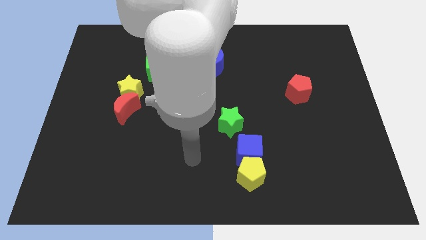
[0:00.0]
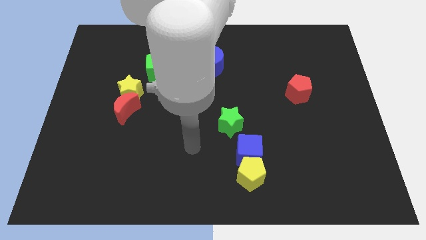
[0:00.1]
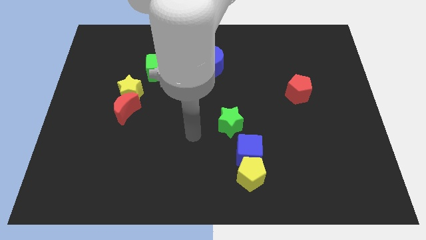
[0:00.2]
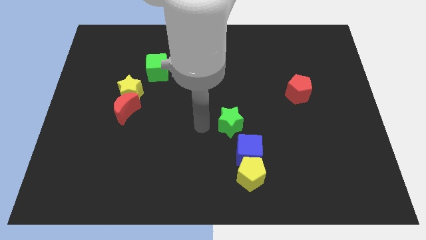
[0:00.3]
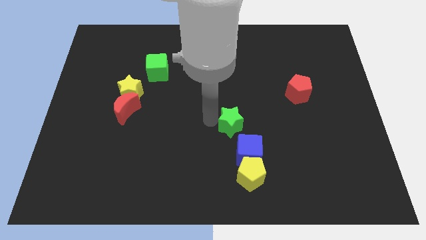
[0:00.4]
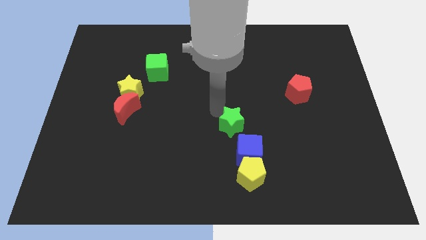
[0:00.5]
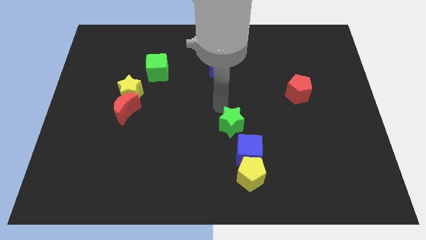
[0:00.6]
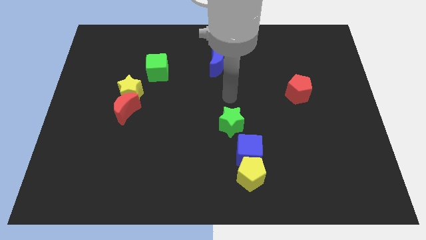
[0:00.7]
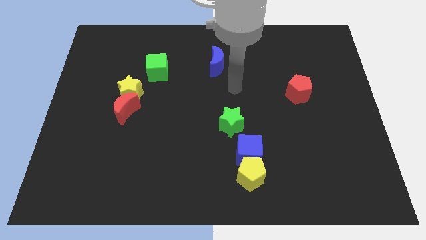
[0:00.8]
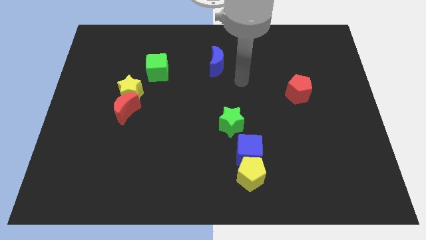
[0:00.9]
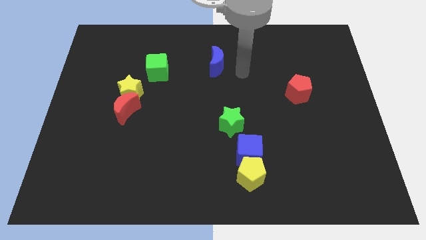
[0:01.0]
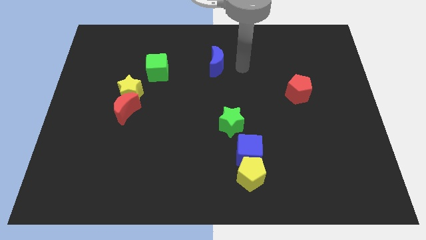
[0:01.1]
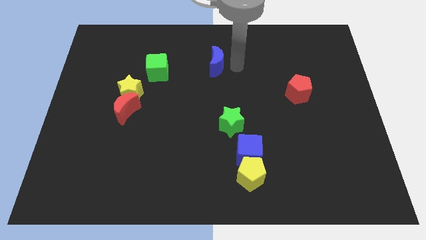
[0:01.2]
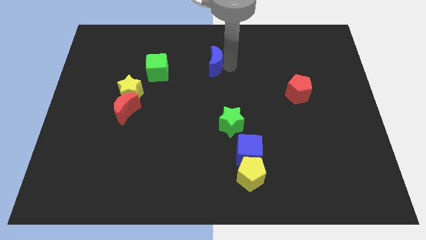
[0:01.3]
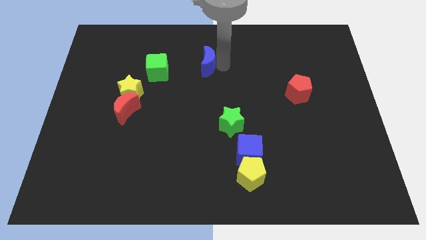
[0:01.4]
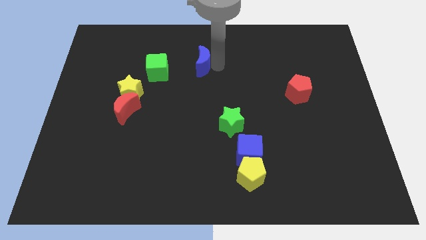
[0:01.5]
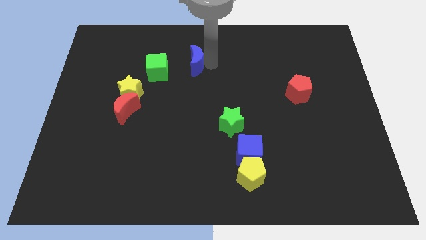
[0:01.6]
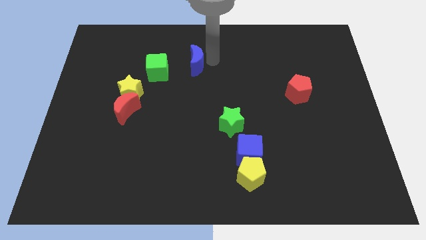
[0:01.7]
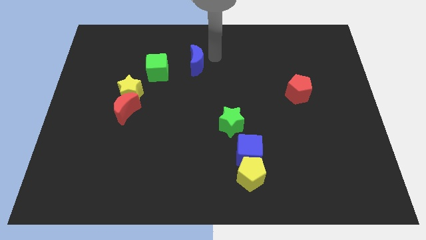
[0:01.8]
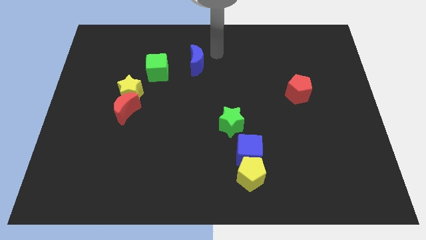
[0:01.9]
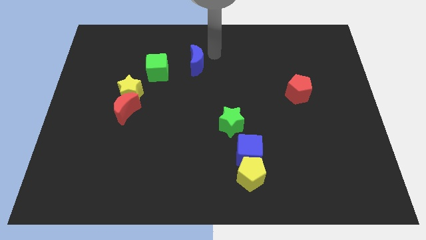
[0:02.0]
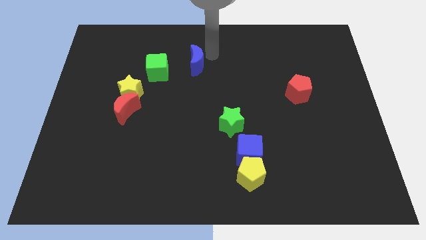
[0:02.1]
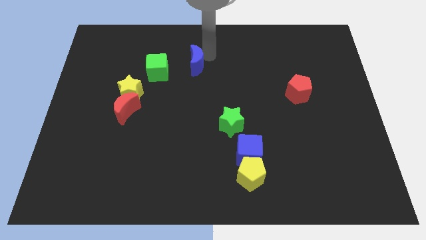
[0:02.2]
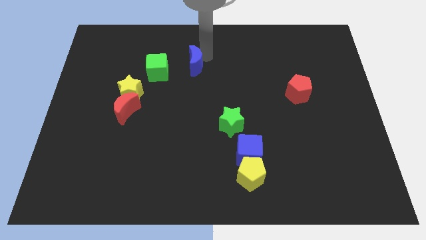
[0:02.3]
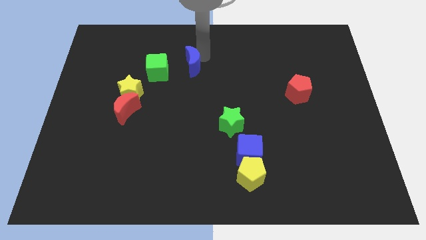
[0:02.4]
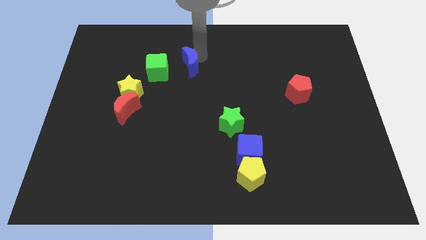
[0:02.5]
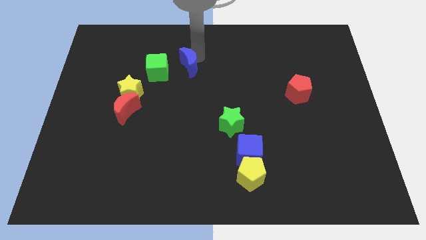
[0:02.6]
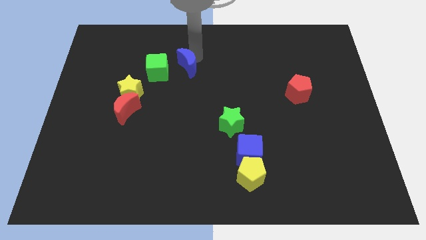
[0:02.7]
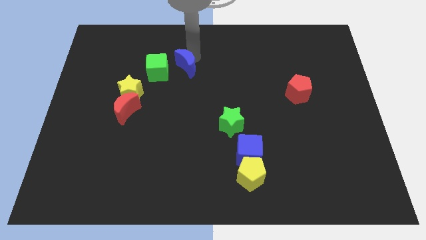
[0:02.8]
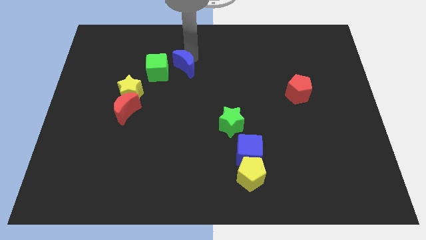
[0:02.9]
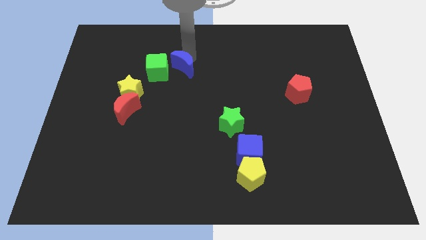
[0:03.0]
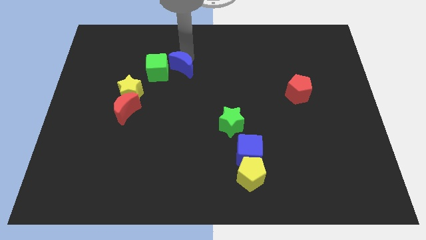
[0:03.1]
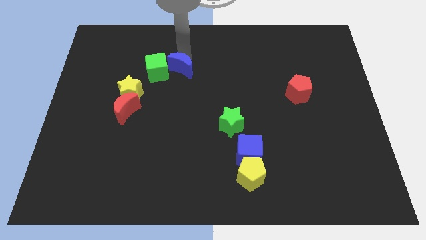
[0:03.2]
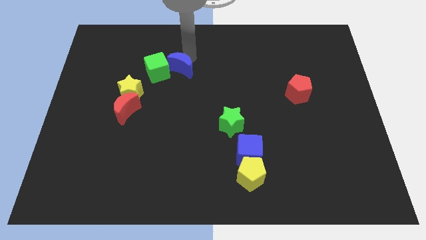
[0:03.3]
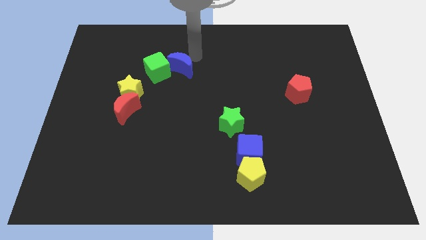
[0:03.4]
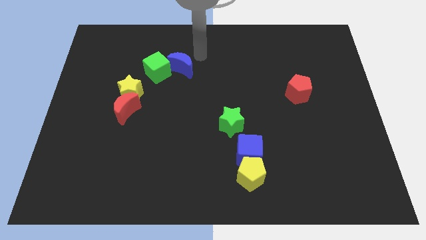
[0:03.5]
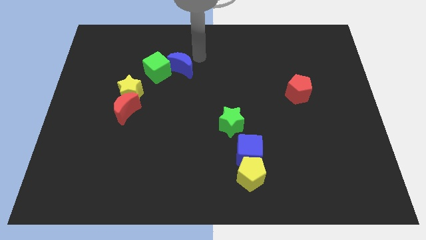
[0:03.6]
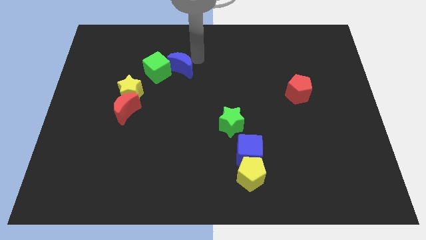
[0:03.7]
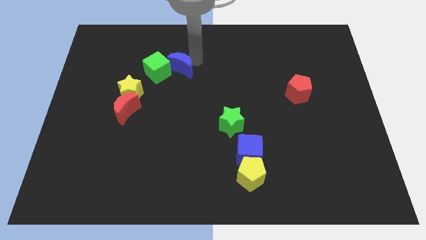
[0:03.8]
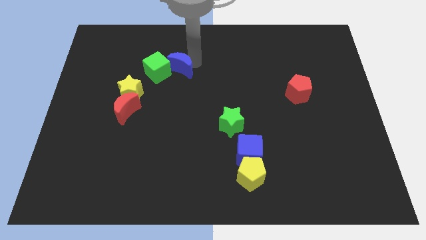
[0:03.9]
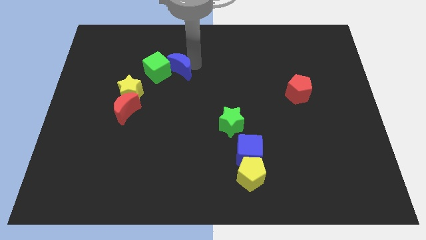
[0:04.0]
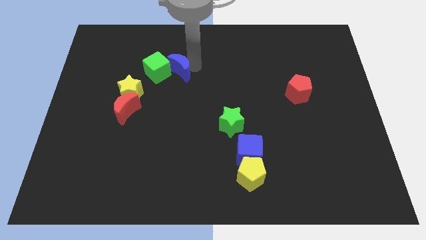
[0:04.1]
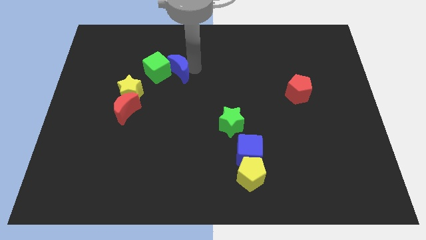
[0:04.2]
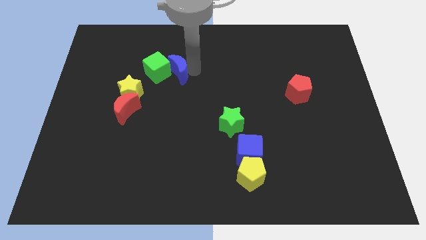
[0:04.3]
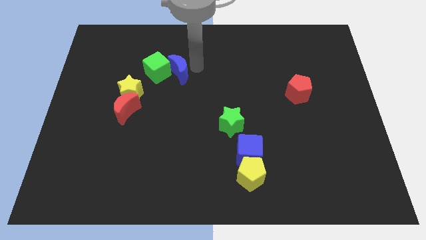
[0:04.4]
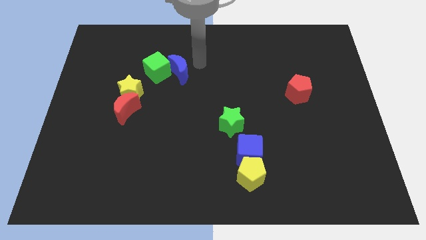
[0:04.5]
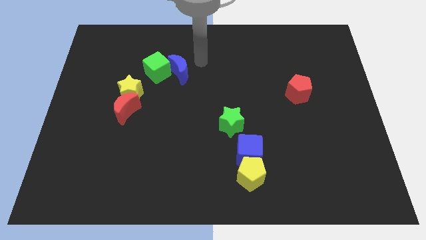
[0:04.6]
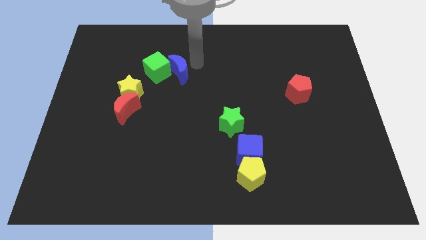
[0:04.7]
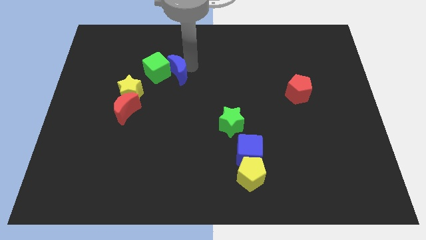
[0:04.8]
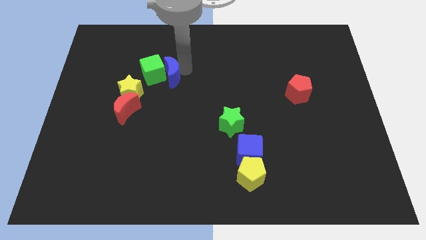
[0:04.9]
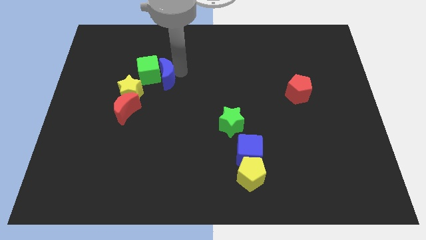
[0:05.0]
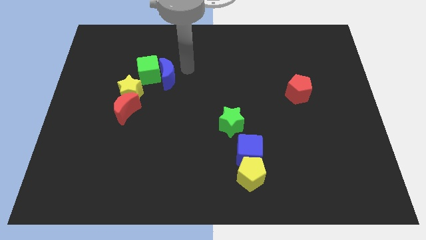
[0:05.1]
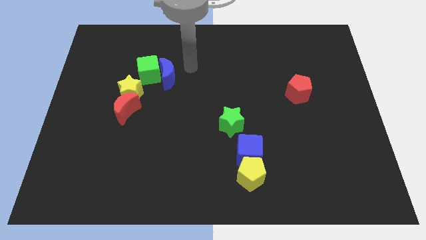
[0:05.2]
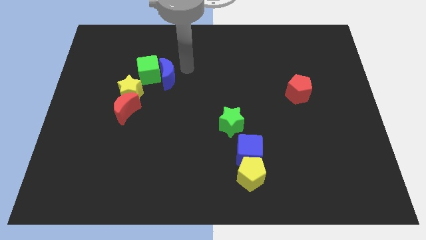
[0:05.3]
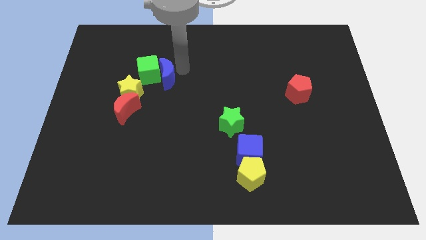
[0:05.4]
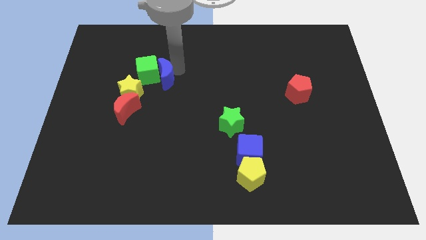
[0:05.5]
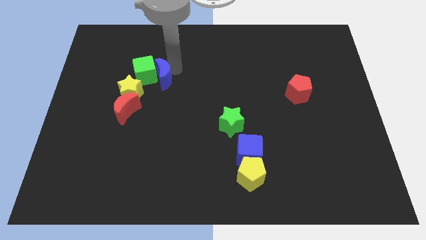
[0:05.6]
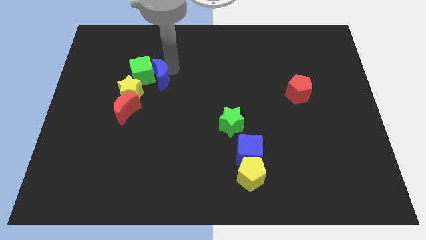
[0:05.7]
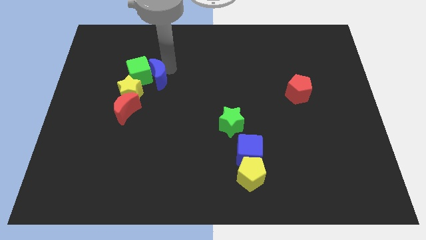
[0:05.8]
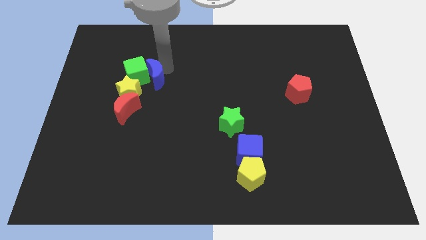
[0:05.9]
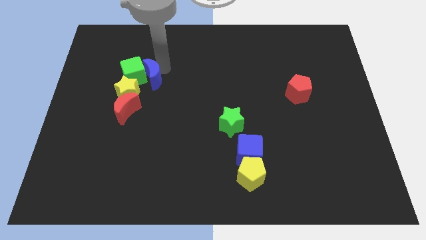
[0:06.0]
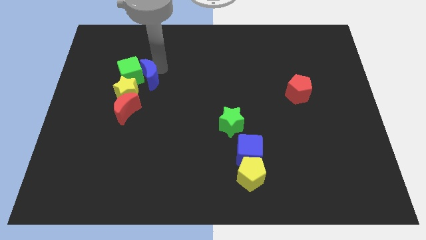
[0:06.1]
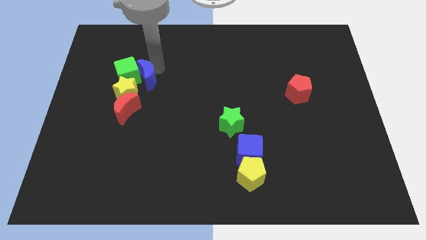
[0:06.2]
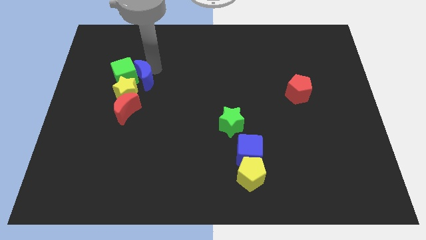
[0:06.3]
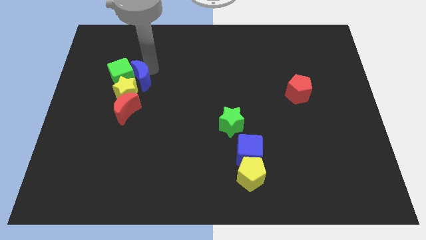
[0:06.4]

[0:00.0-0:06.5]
put the blue moon towards the yellow star
